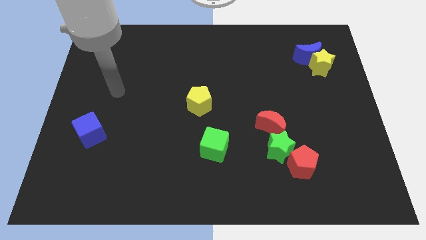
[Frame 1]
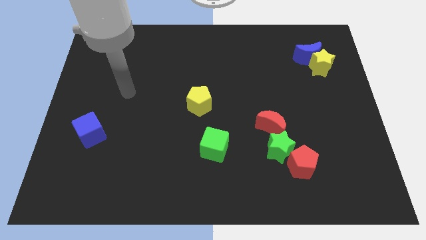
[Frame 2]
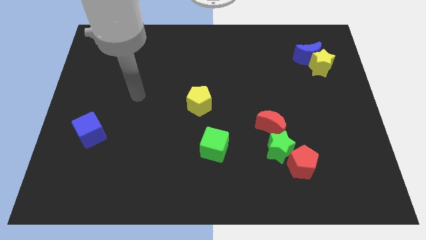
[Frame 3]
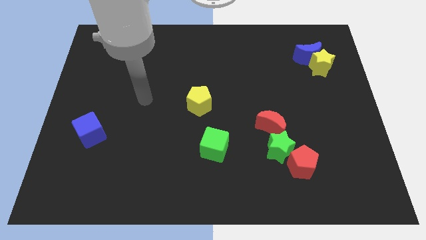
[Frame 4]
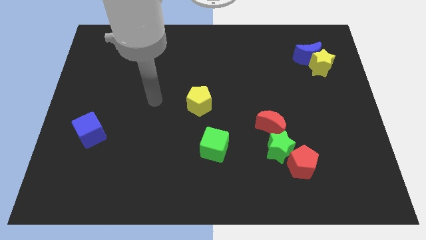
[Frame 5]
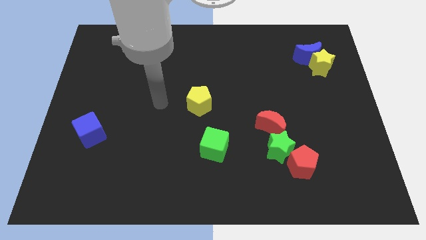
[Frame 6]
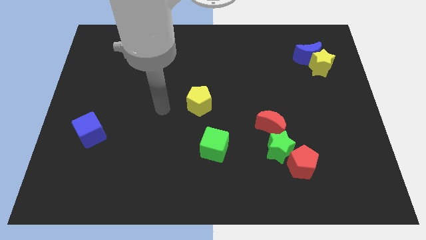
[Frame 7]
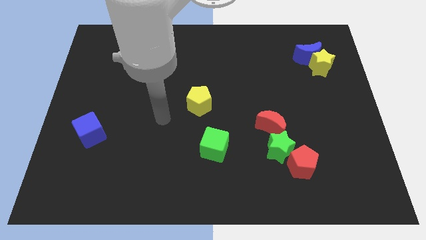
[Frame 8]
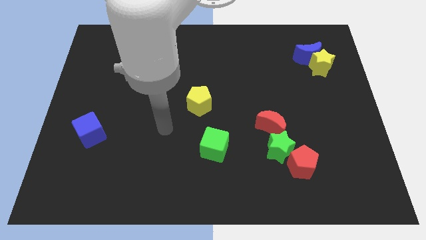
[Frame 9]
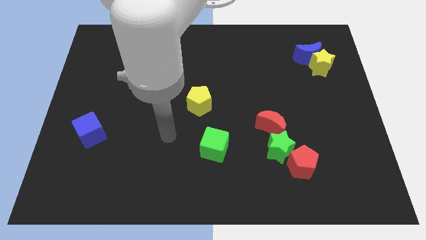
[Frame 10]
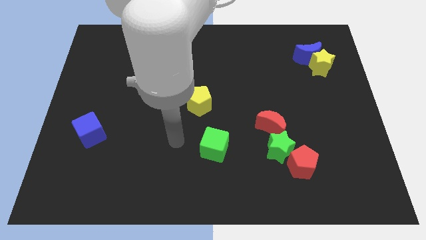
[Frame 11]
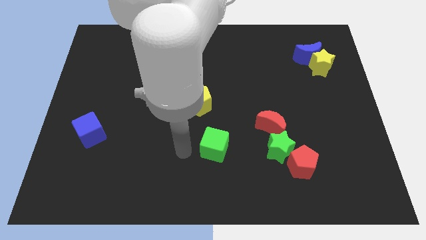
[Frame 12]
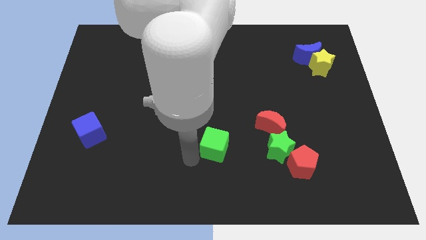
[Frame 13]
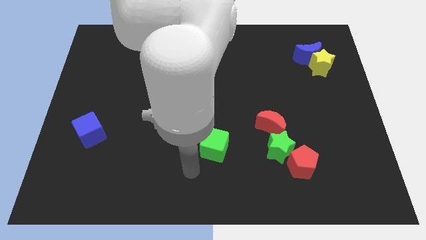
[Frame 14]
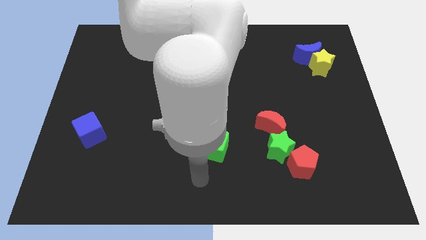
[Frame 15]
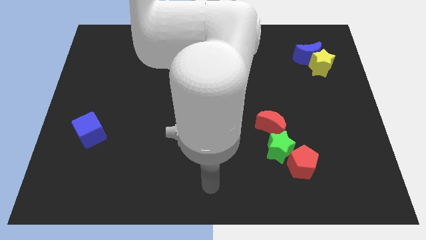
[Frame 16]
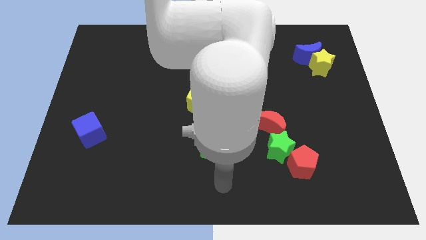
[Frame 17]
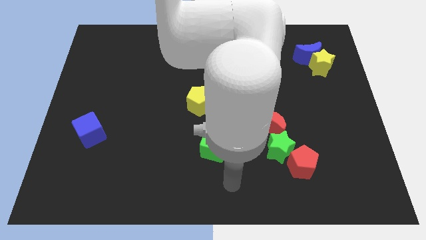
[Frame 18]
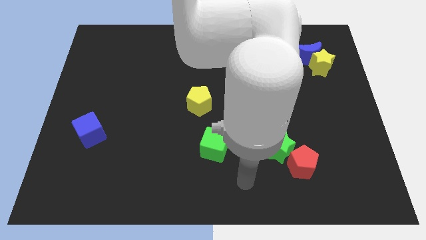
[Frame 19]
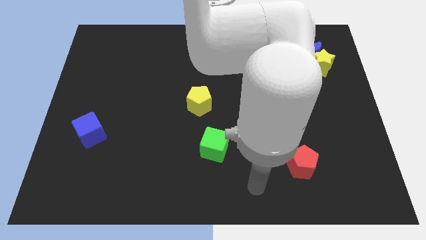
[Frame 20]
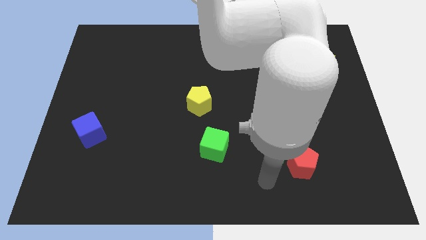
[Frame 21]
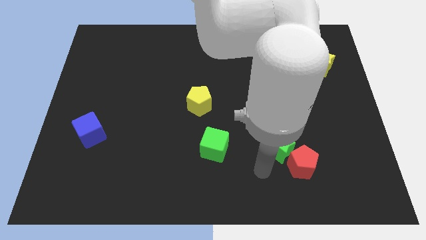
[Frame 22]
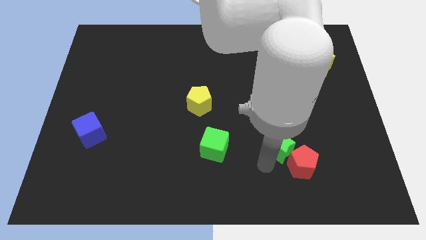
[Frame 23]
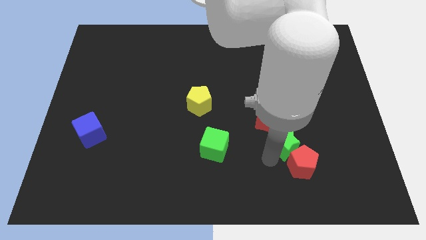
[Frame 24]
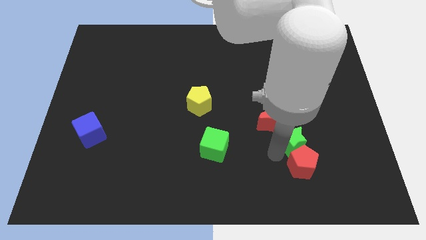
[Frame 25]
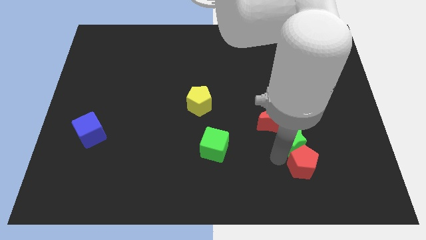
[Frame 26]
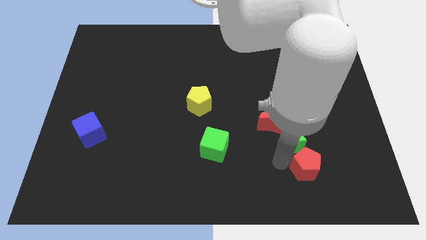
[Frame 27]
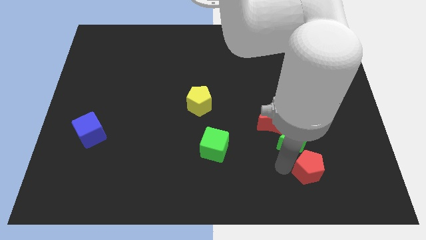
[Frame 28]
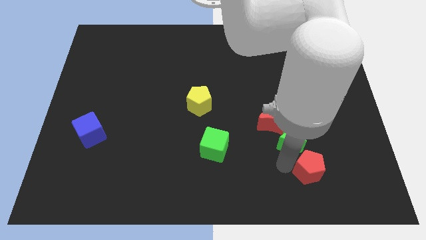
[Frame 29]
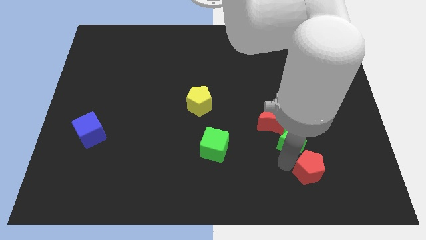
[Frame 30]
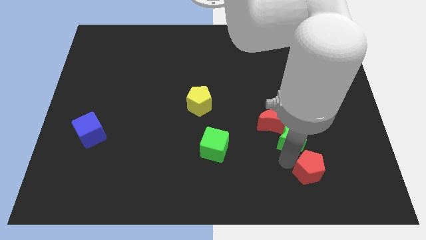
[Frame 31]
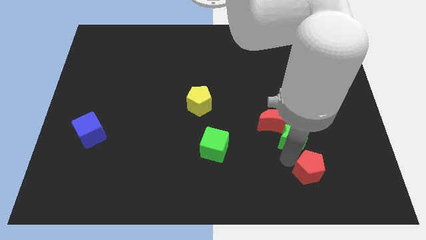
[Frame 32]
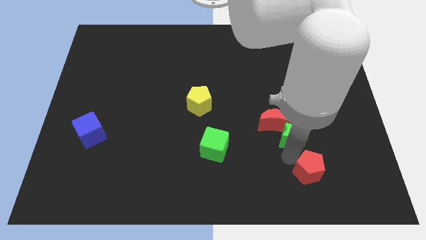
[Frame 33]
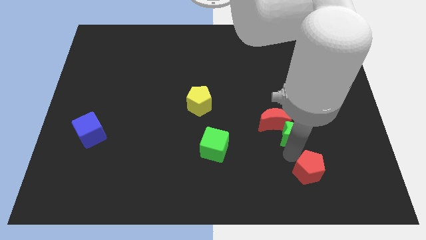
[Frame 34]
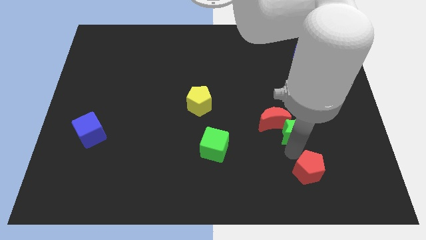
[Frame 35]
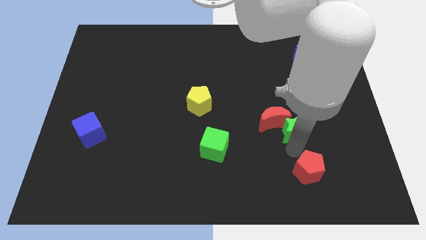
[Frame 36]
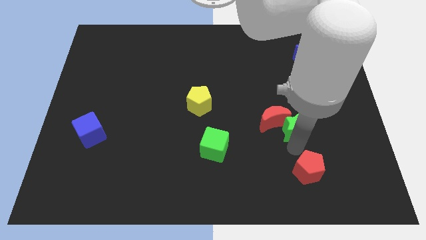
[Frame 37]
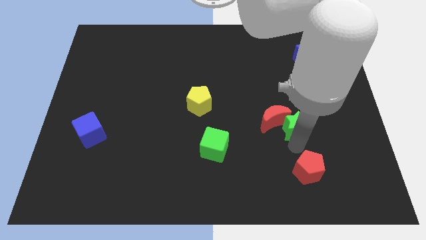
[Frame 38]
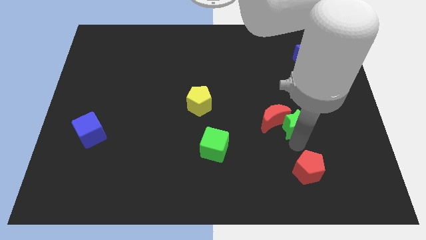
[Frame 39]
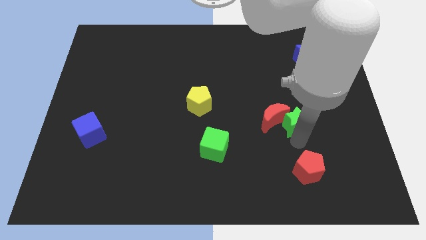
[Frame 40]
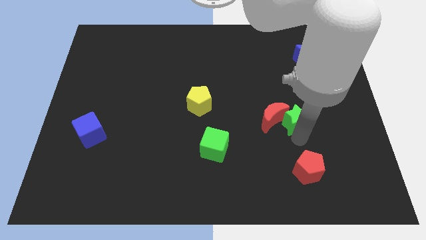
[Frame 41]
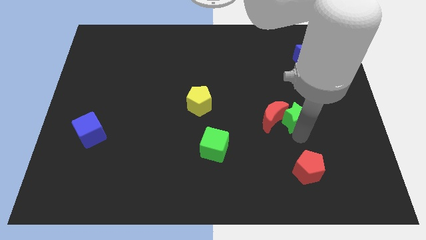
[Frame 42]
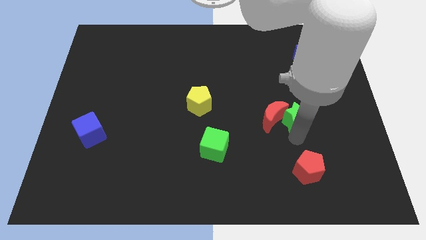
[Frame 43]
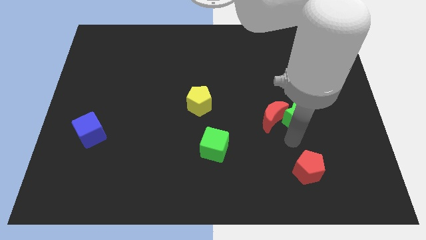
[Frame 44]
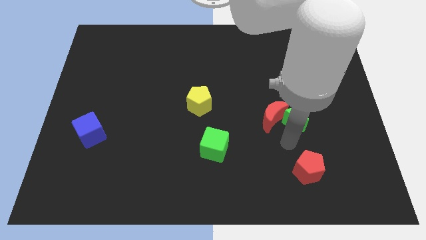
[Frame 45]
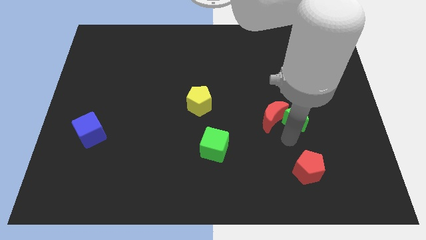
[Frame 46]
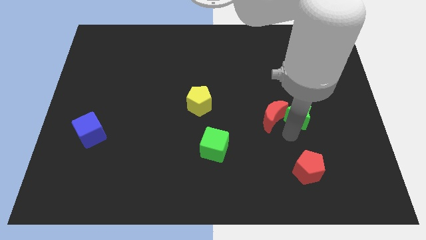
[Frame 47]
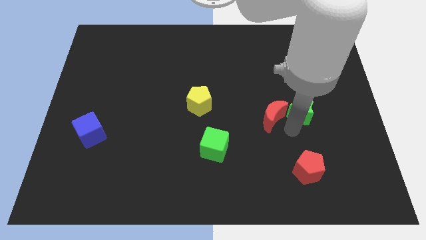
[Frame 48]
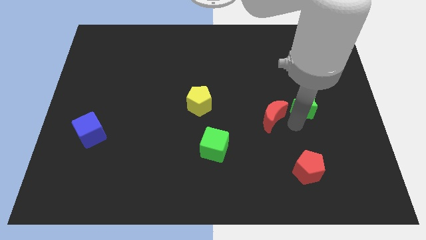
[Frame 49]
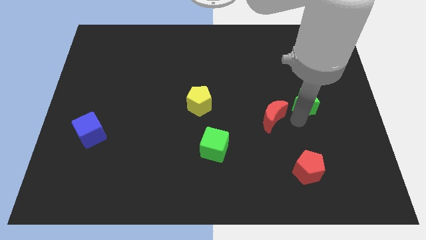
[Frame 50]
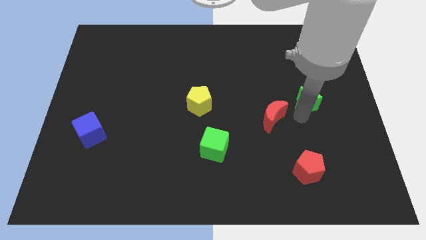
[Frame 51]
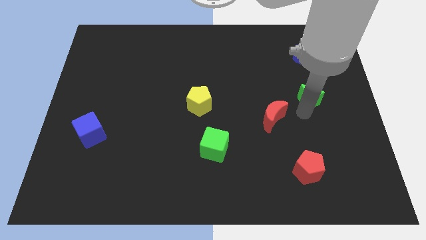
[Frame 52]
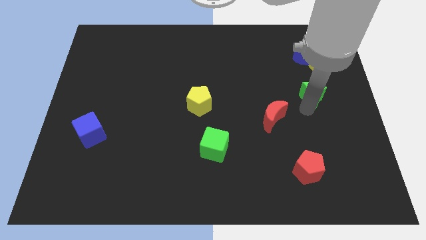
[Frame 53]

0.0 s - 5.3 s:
slide the green star to the bottom left side of the yellow star

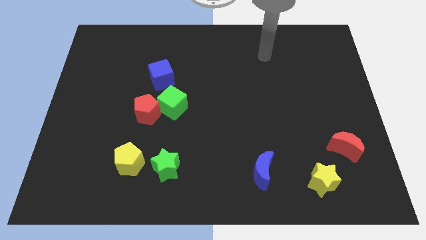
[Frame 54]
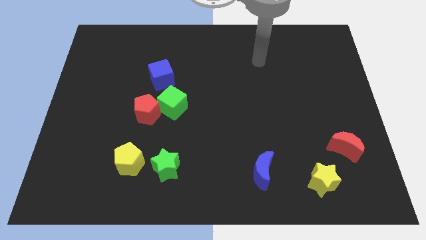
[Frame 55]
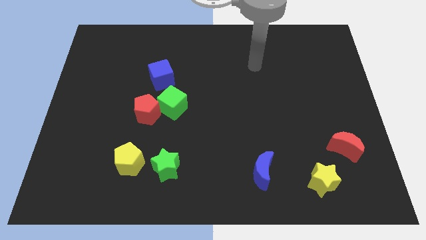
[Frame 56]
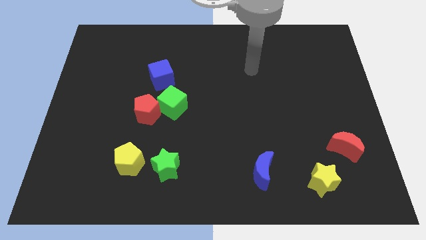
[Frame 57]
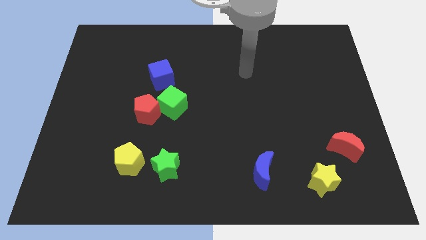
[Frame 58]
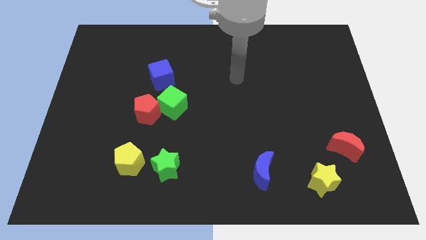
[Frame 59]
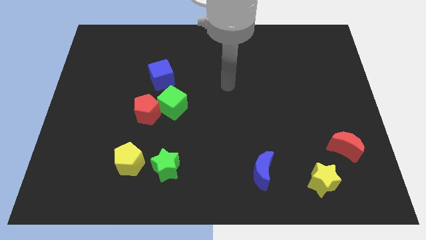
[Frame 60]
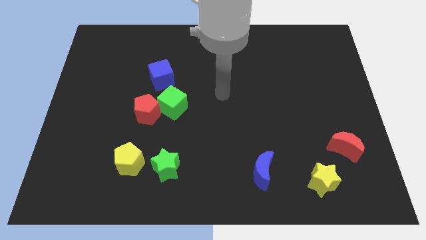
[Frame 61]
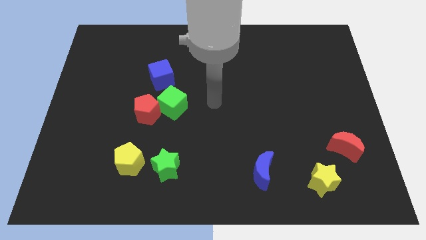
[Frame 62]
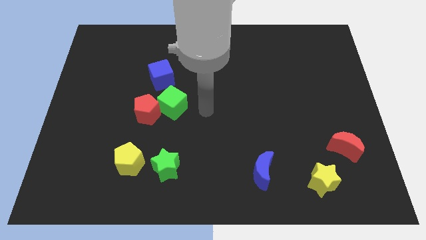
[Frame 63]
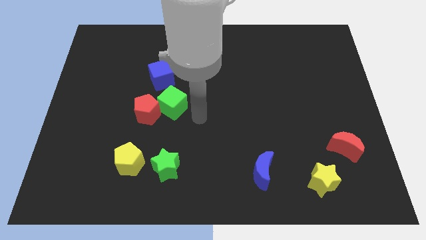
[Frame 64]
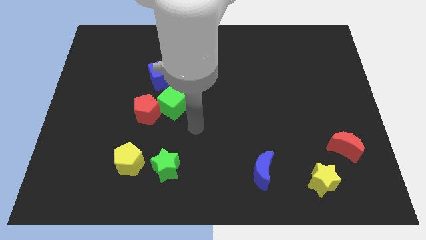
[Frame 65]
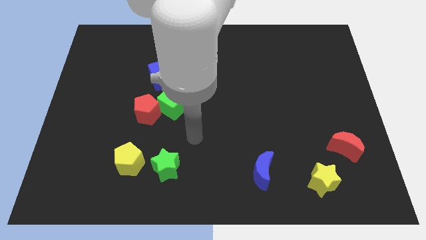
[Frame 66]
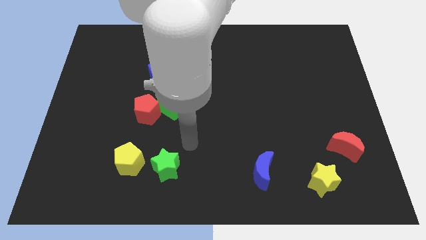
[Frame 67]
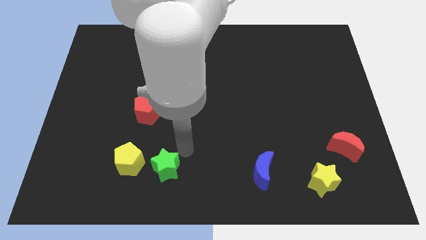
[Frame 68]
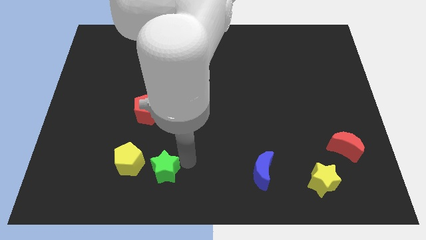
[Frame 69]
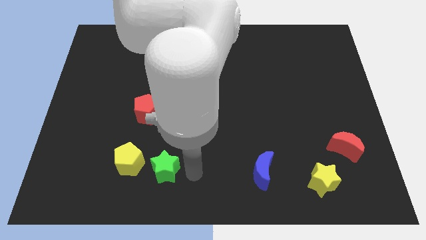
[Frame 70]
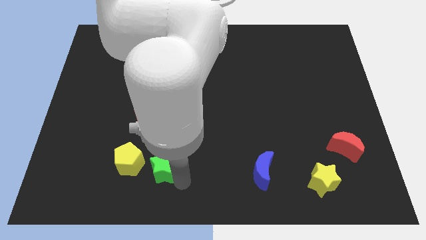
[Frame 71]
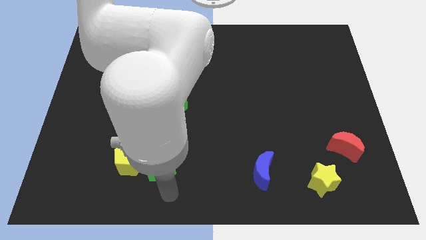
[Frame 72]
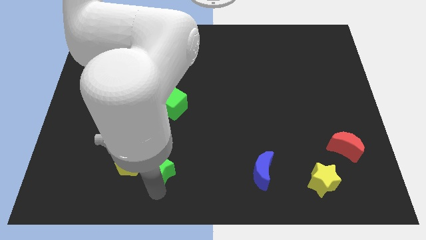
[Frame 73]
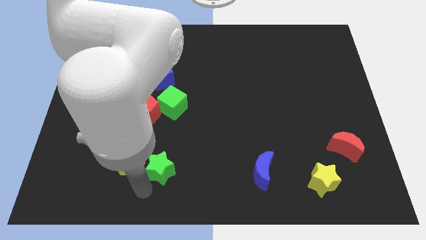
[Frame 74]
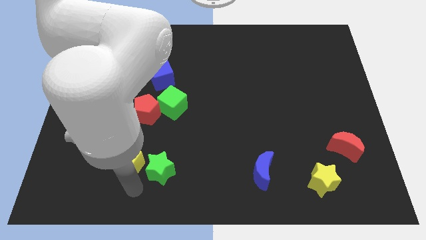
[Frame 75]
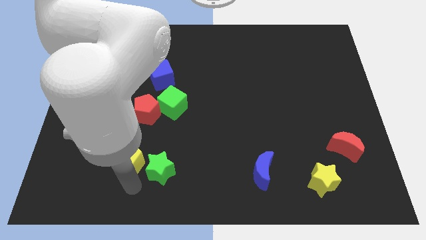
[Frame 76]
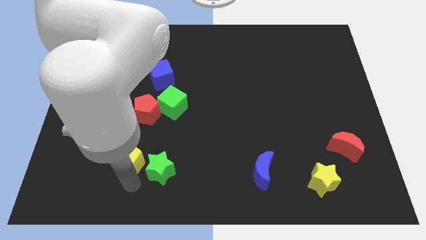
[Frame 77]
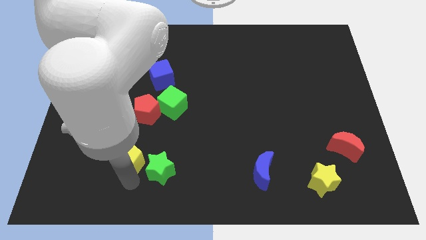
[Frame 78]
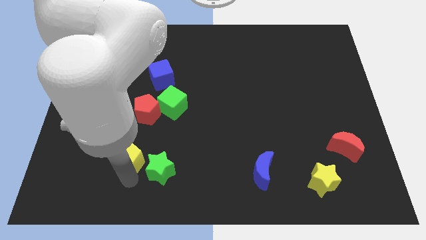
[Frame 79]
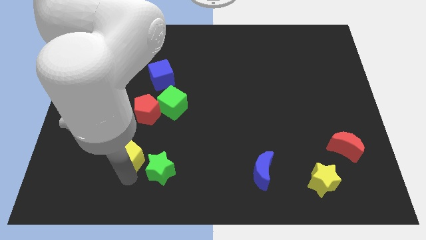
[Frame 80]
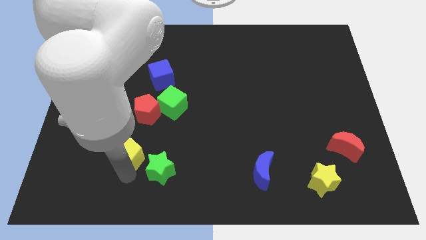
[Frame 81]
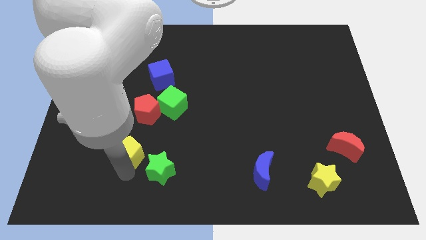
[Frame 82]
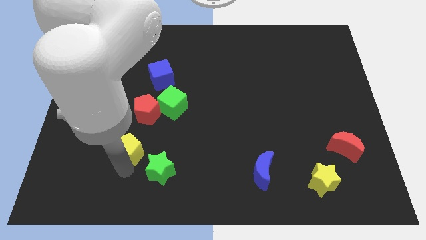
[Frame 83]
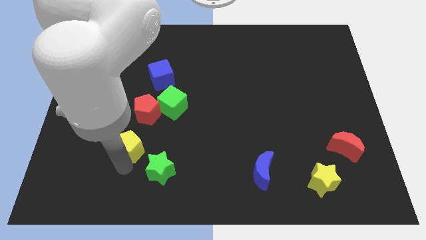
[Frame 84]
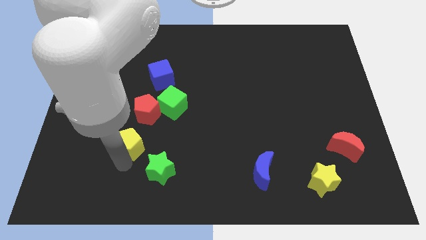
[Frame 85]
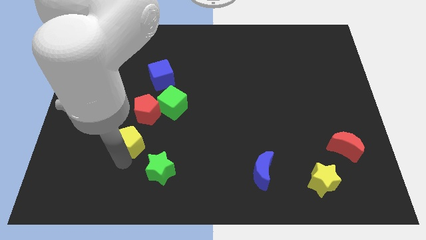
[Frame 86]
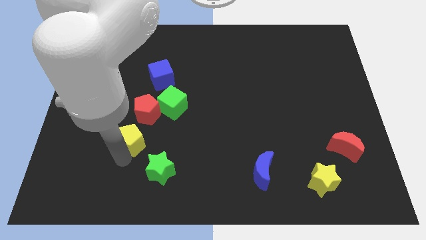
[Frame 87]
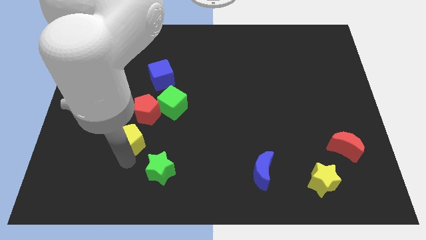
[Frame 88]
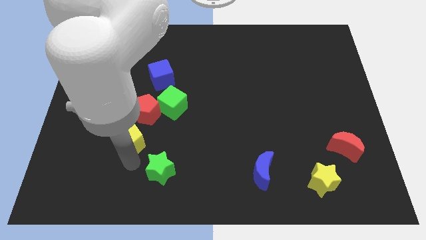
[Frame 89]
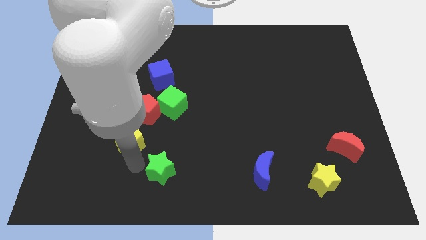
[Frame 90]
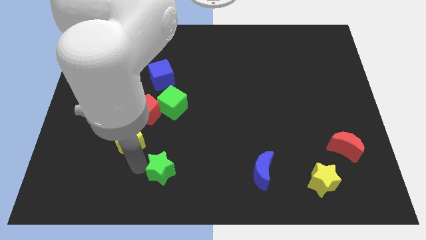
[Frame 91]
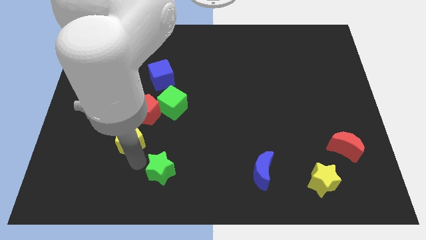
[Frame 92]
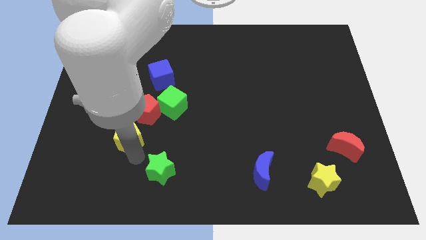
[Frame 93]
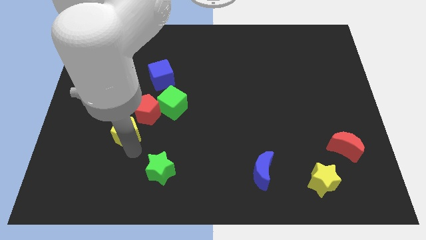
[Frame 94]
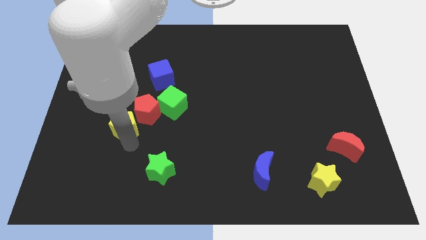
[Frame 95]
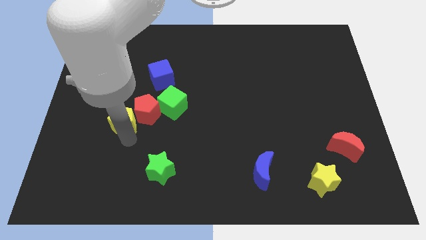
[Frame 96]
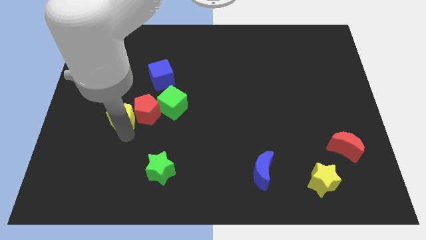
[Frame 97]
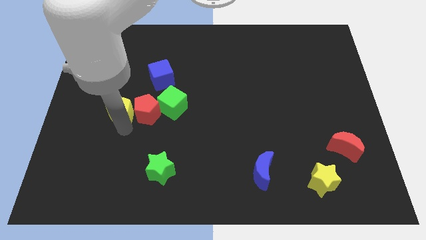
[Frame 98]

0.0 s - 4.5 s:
move the yellow pentagon diagonally up and to the left of the red pentagon
